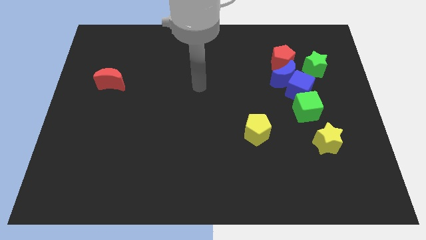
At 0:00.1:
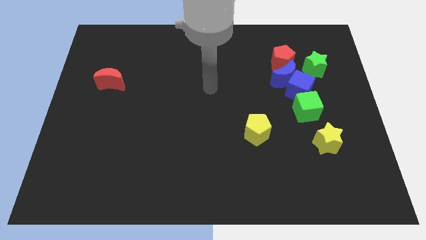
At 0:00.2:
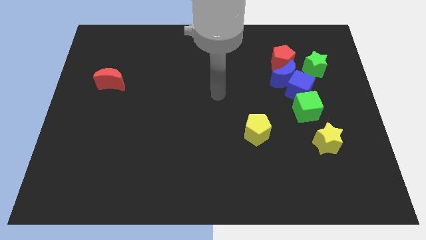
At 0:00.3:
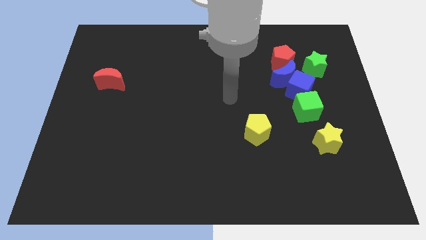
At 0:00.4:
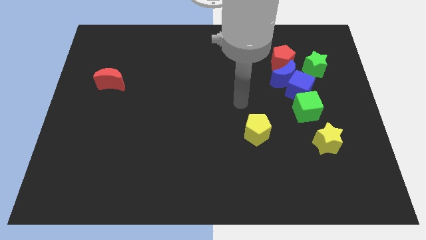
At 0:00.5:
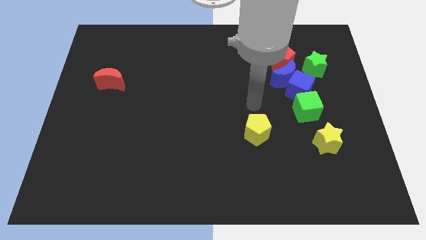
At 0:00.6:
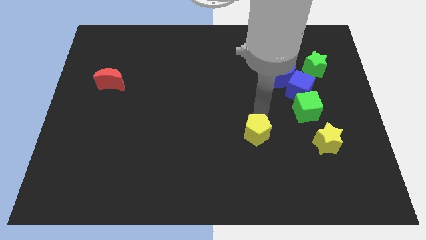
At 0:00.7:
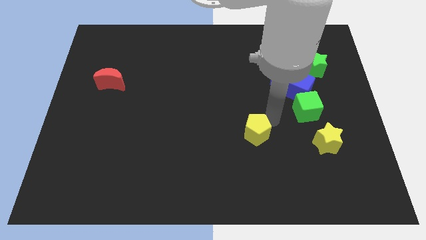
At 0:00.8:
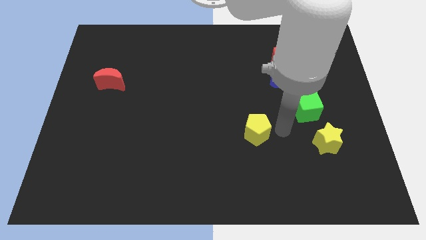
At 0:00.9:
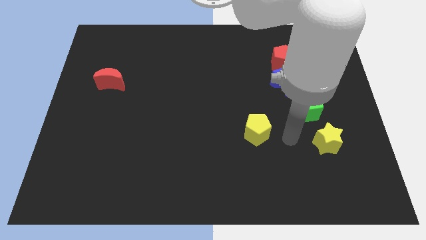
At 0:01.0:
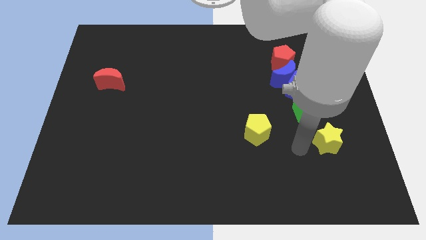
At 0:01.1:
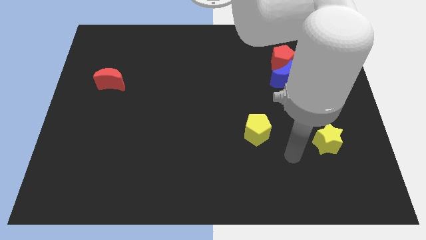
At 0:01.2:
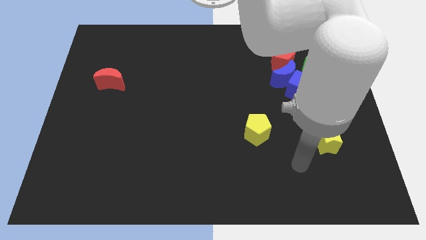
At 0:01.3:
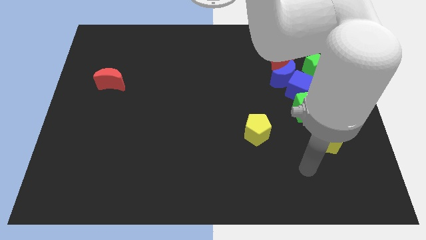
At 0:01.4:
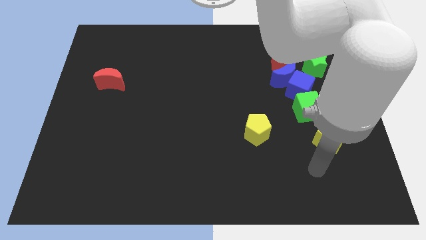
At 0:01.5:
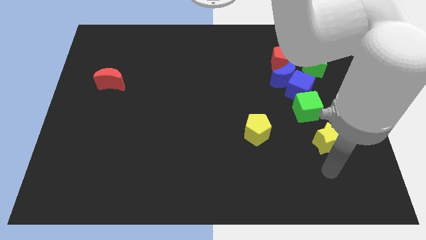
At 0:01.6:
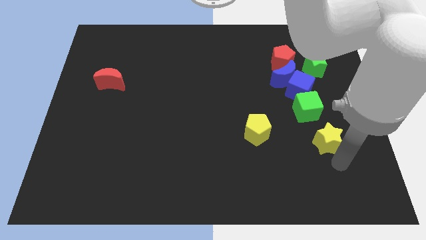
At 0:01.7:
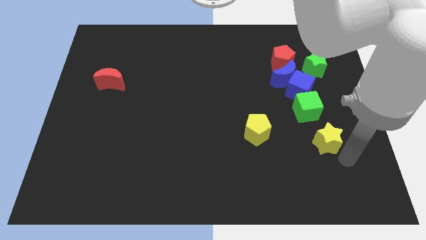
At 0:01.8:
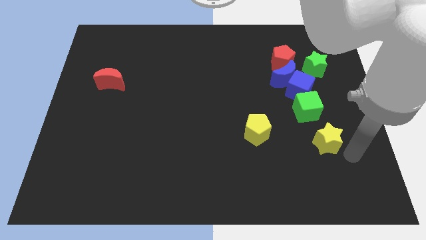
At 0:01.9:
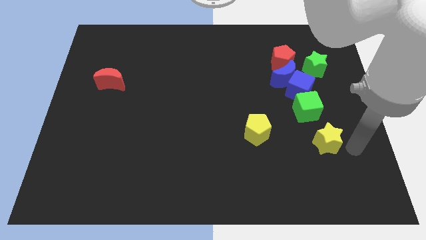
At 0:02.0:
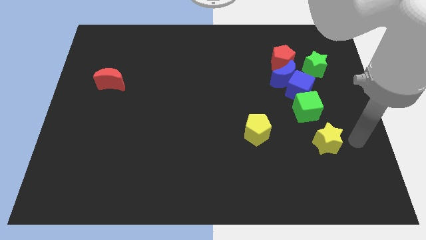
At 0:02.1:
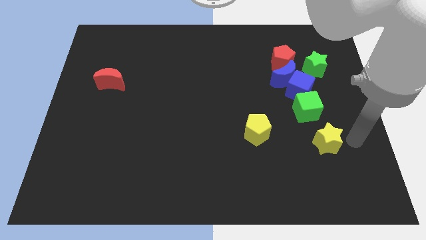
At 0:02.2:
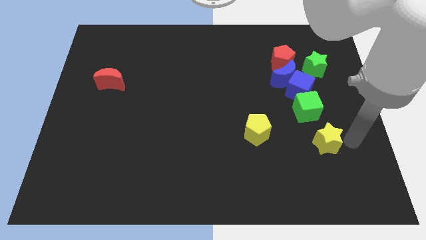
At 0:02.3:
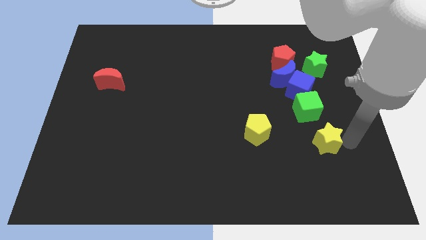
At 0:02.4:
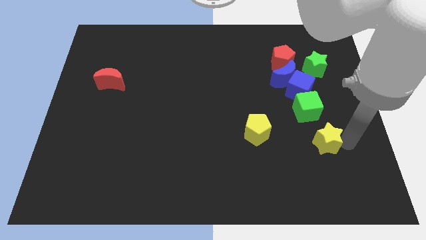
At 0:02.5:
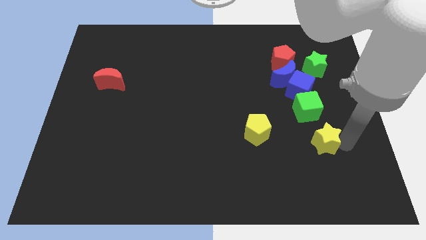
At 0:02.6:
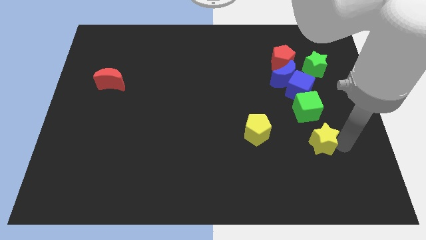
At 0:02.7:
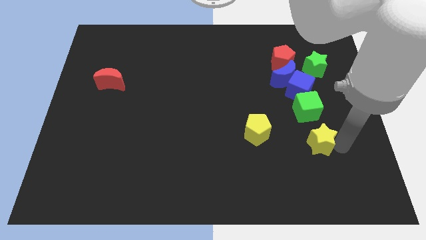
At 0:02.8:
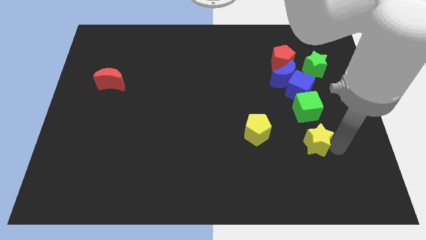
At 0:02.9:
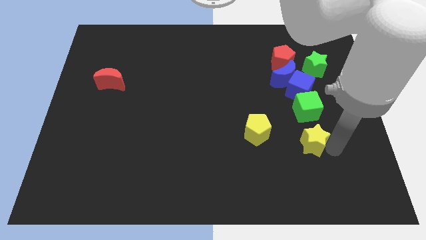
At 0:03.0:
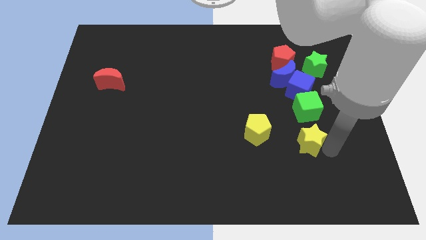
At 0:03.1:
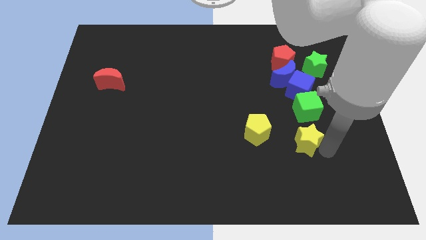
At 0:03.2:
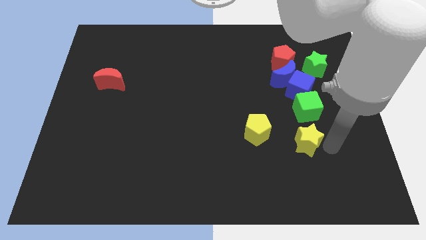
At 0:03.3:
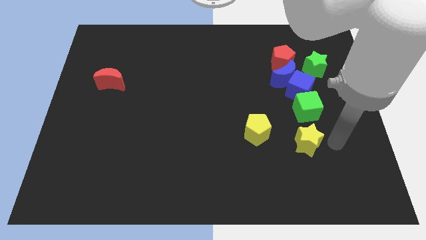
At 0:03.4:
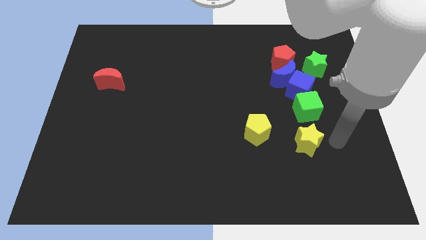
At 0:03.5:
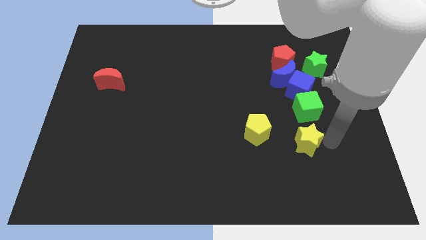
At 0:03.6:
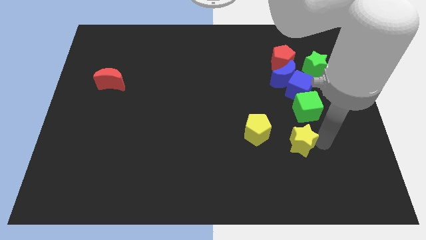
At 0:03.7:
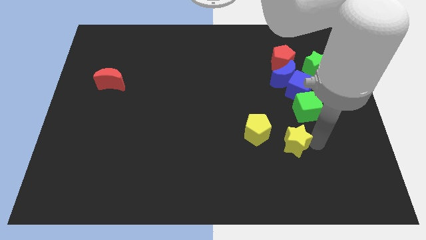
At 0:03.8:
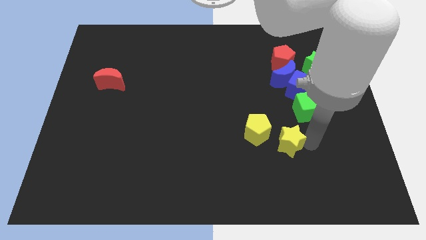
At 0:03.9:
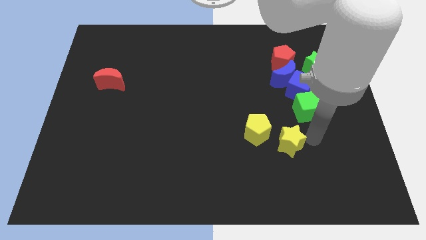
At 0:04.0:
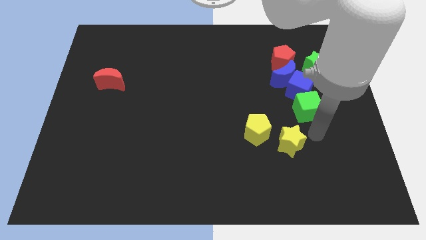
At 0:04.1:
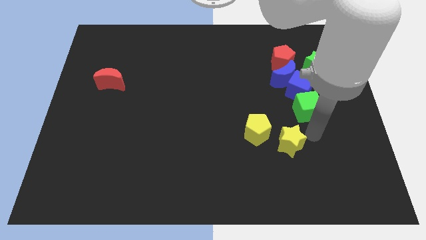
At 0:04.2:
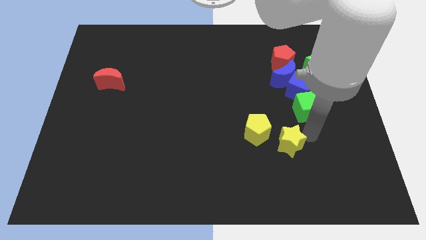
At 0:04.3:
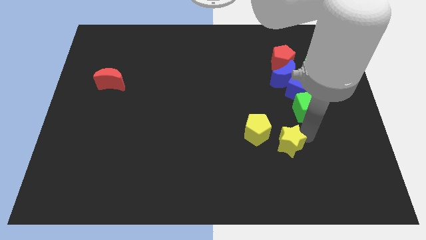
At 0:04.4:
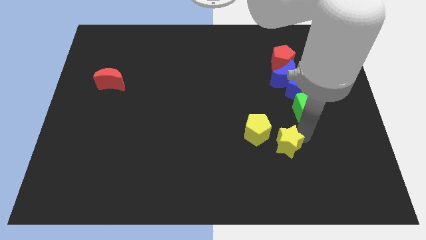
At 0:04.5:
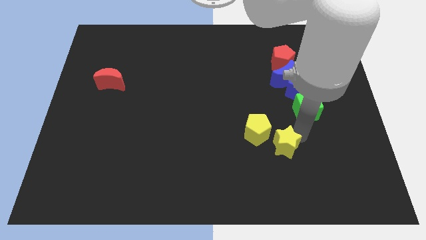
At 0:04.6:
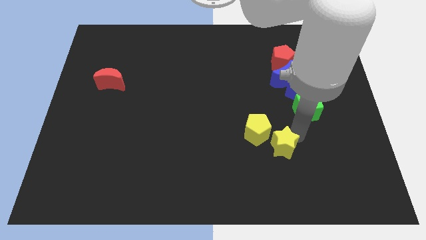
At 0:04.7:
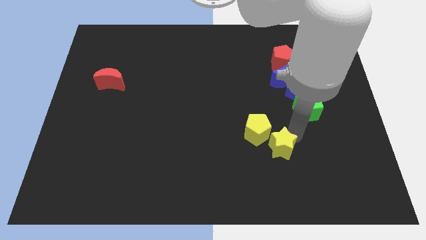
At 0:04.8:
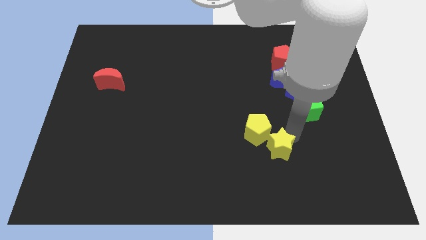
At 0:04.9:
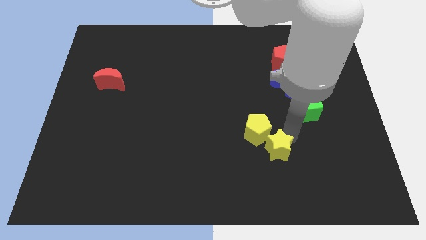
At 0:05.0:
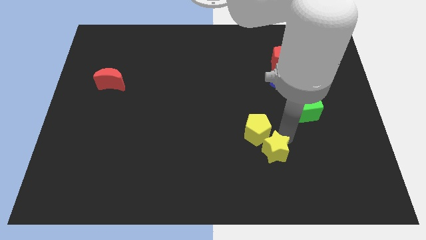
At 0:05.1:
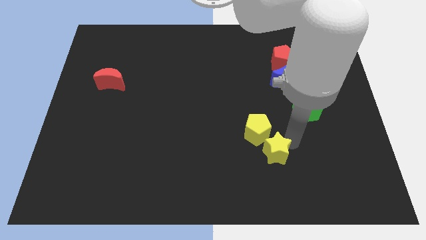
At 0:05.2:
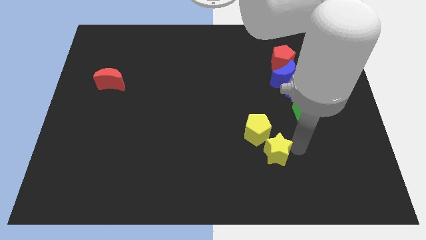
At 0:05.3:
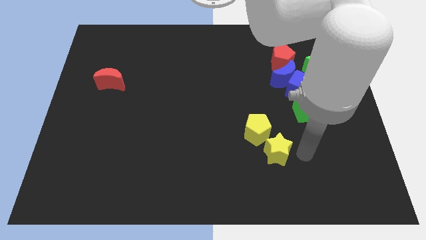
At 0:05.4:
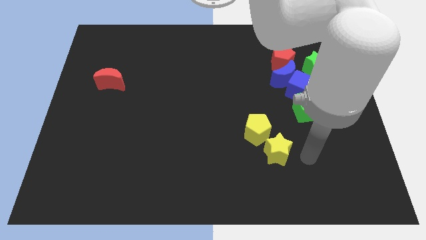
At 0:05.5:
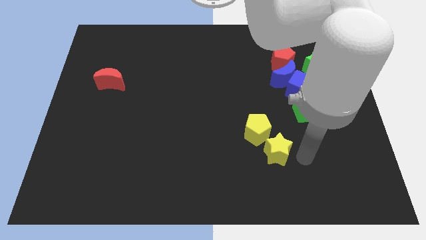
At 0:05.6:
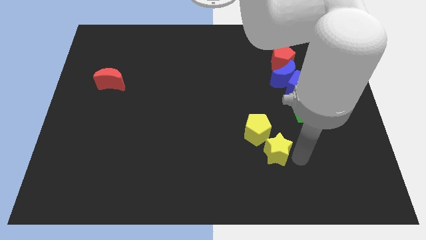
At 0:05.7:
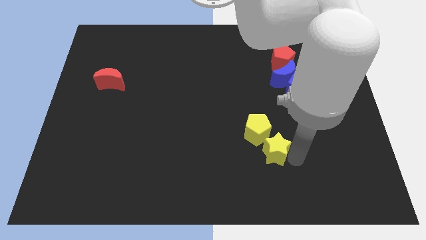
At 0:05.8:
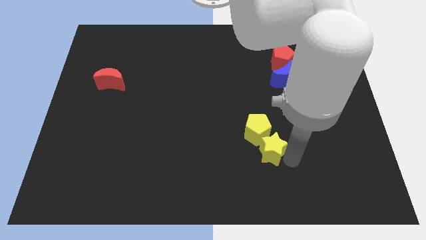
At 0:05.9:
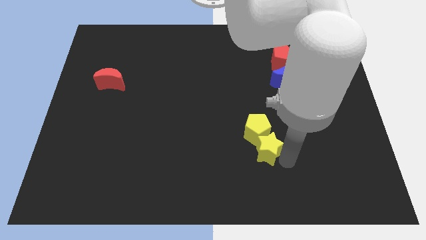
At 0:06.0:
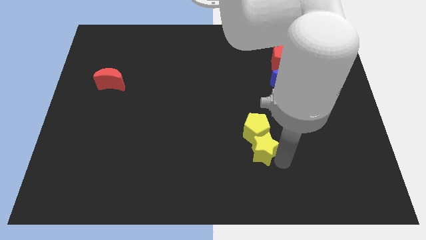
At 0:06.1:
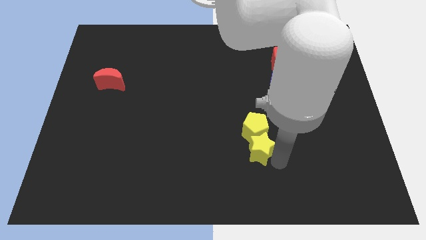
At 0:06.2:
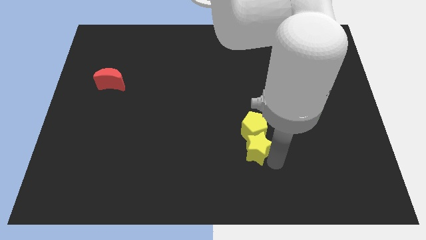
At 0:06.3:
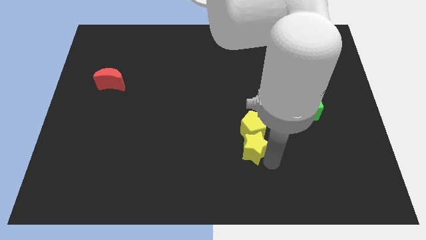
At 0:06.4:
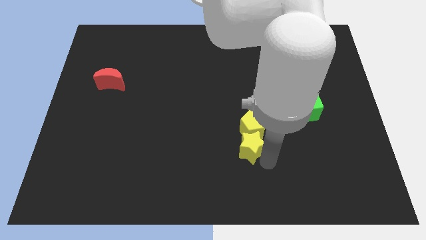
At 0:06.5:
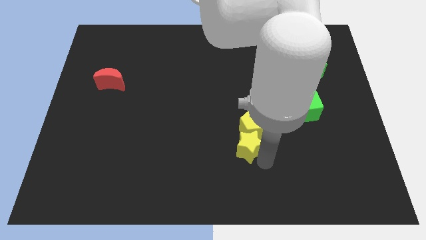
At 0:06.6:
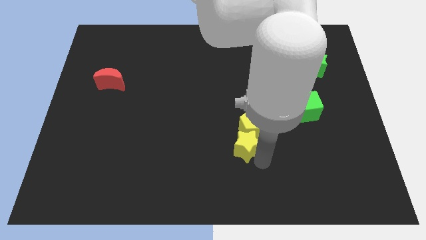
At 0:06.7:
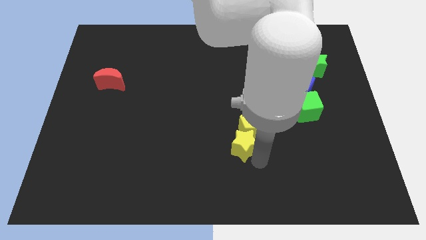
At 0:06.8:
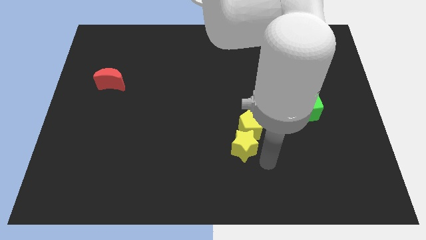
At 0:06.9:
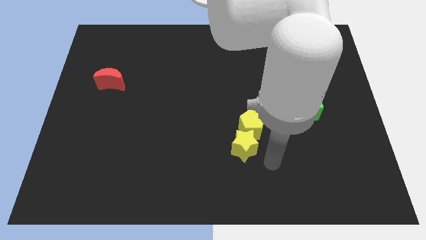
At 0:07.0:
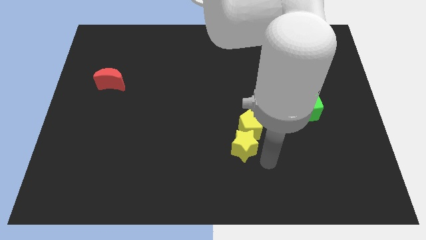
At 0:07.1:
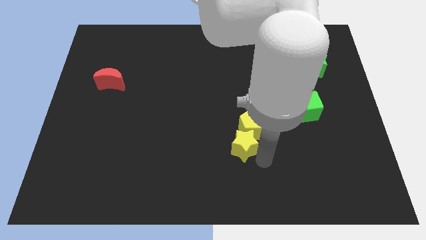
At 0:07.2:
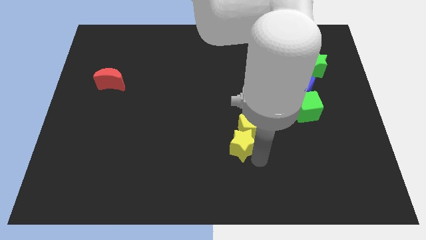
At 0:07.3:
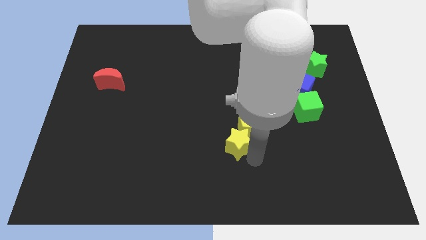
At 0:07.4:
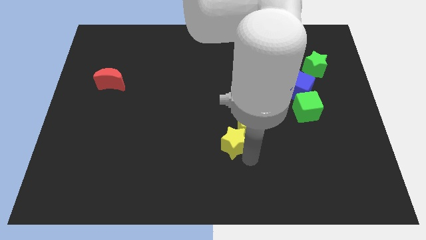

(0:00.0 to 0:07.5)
slide the yellow star to the left side of the yellow pentagon
